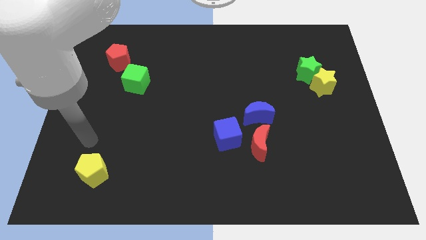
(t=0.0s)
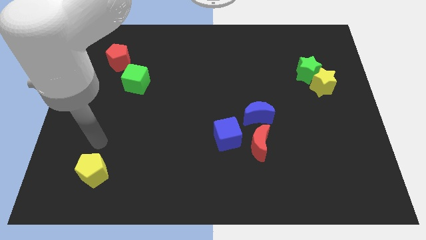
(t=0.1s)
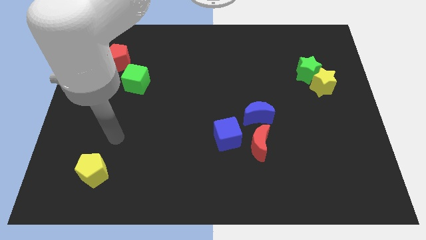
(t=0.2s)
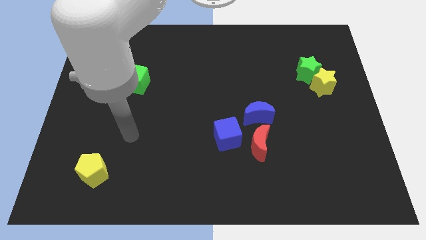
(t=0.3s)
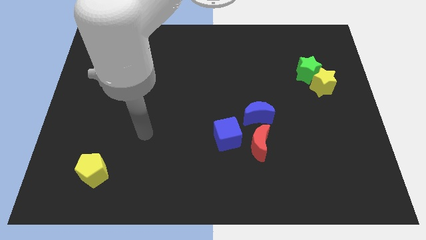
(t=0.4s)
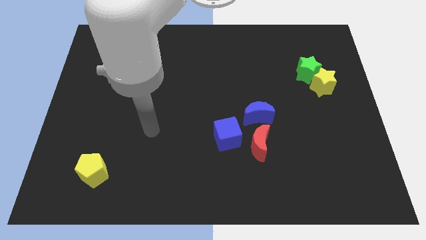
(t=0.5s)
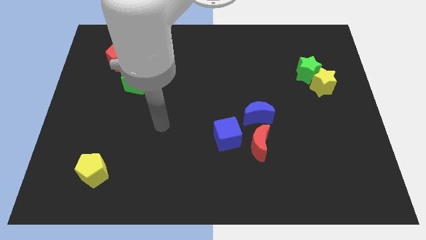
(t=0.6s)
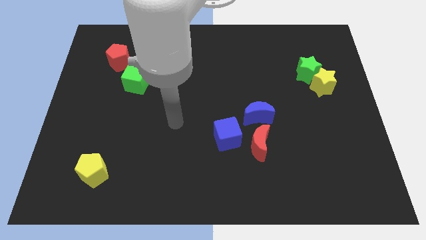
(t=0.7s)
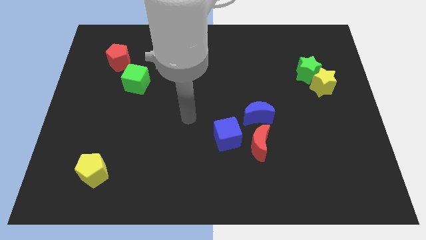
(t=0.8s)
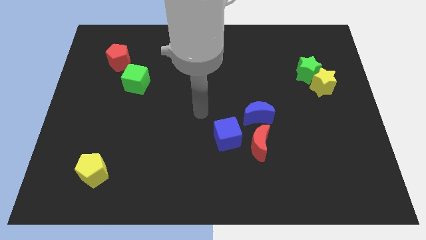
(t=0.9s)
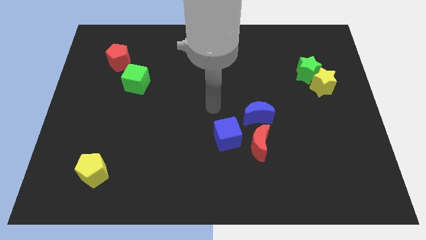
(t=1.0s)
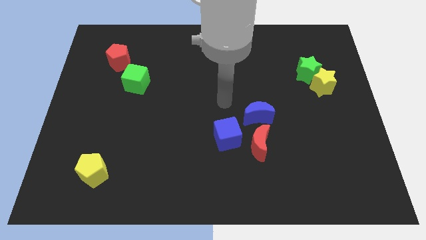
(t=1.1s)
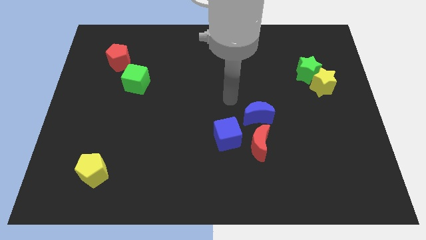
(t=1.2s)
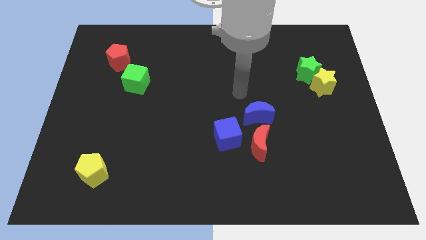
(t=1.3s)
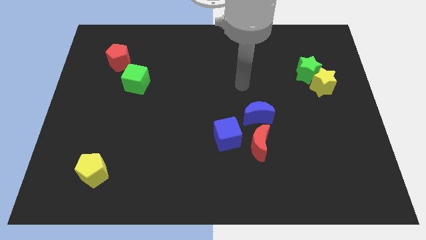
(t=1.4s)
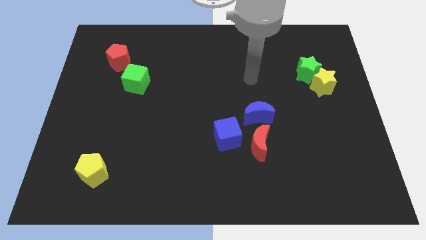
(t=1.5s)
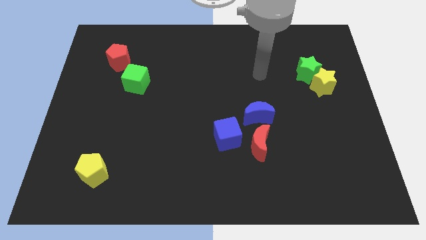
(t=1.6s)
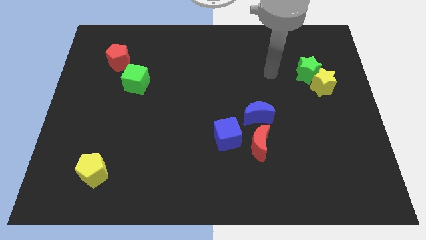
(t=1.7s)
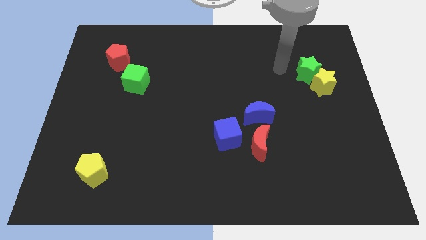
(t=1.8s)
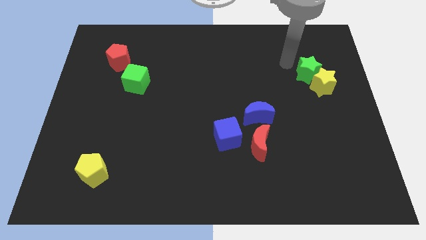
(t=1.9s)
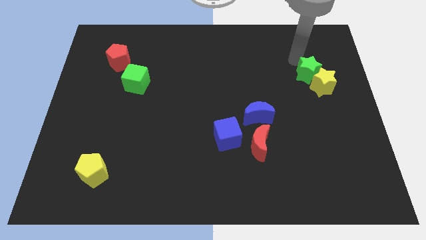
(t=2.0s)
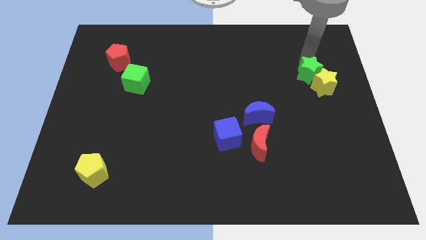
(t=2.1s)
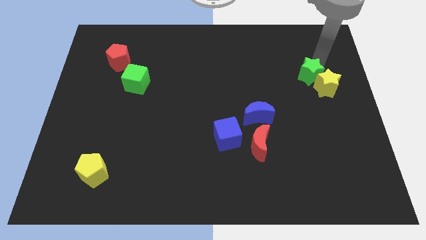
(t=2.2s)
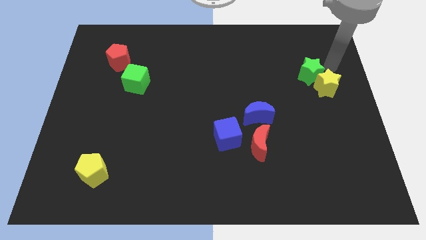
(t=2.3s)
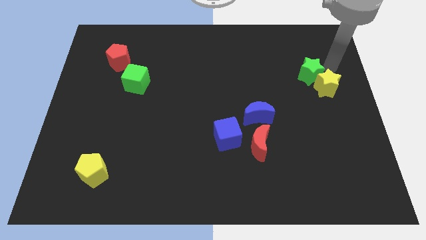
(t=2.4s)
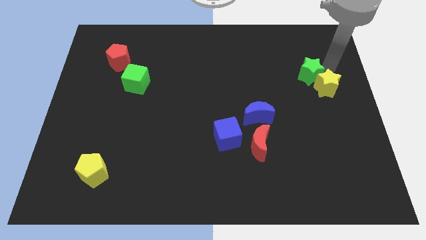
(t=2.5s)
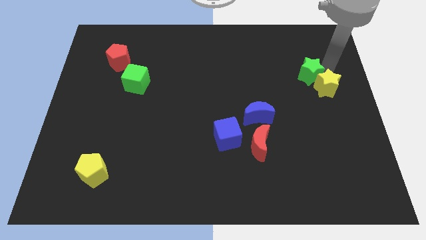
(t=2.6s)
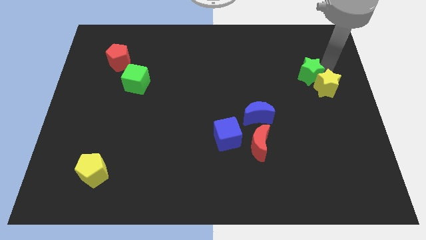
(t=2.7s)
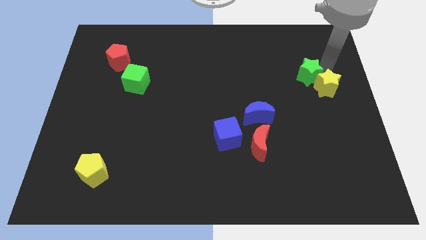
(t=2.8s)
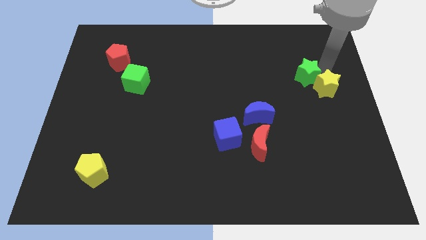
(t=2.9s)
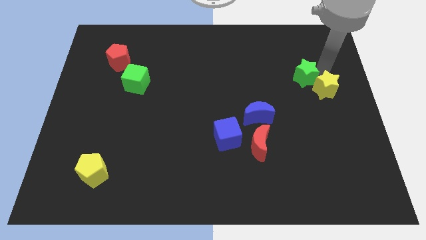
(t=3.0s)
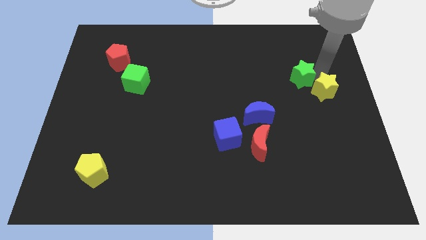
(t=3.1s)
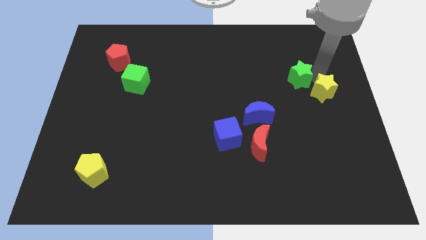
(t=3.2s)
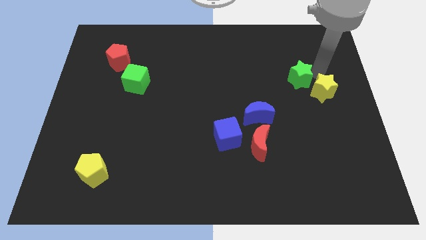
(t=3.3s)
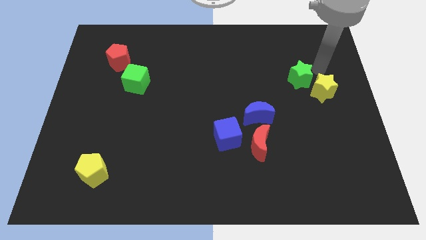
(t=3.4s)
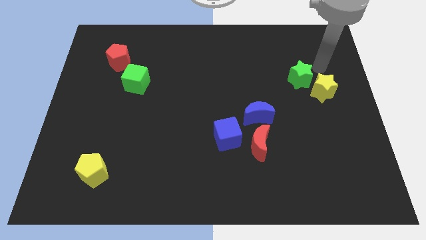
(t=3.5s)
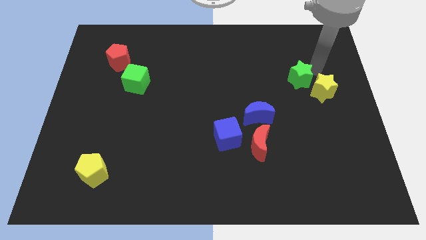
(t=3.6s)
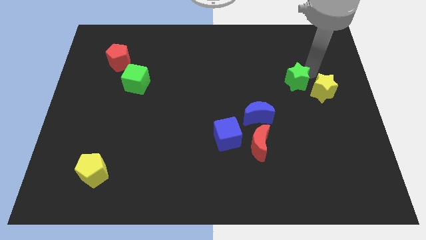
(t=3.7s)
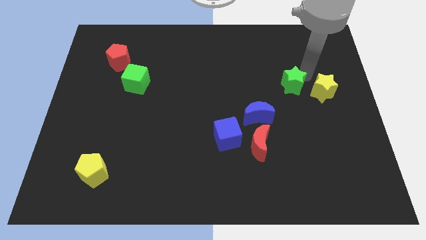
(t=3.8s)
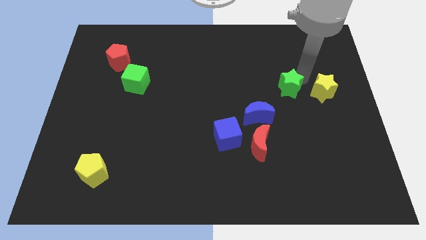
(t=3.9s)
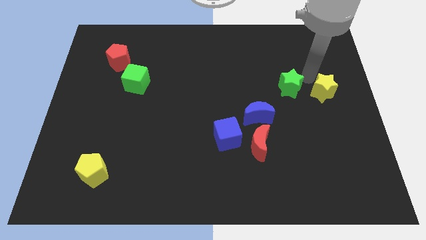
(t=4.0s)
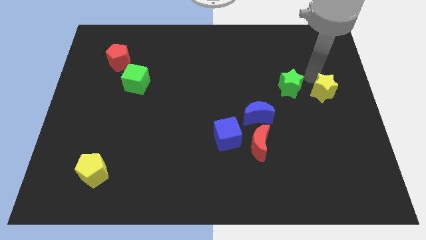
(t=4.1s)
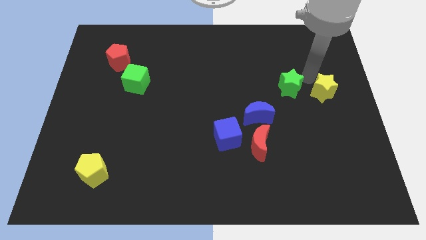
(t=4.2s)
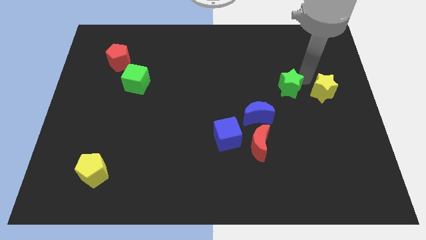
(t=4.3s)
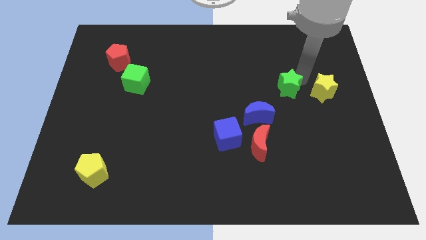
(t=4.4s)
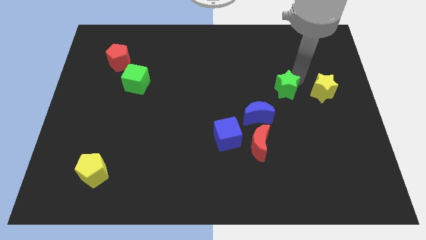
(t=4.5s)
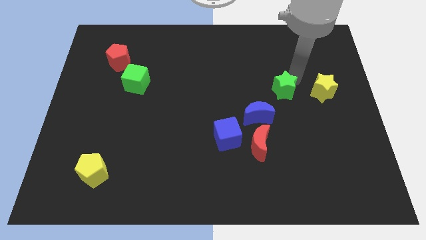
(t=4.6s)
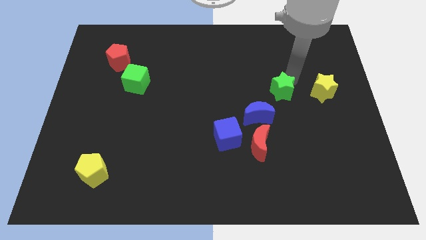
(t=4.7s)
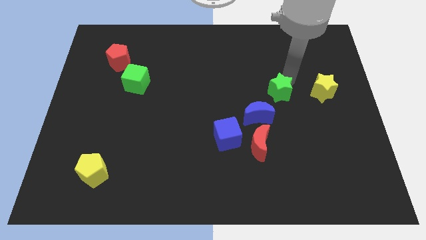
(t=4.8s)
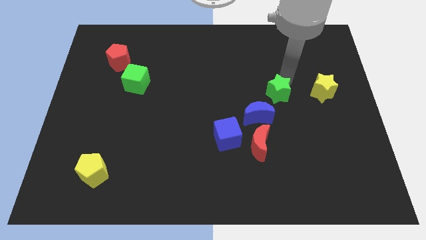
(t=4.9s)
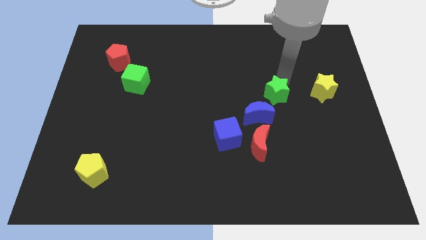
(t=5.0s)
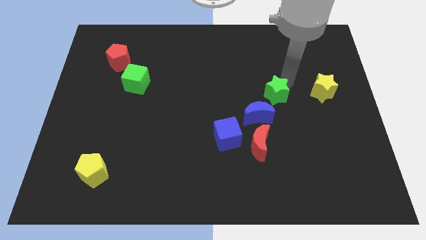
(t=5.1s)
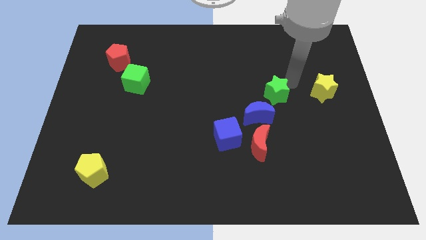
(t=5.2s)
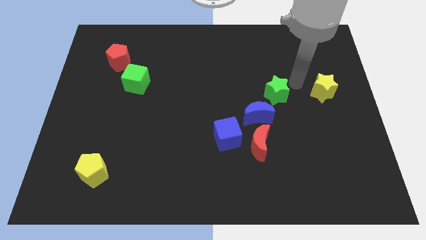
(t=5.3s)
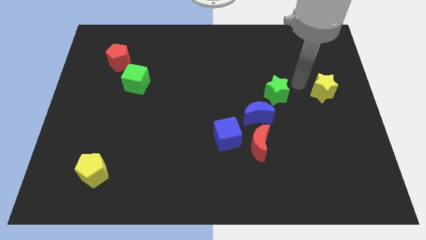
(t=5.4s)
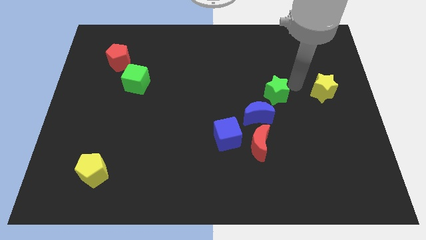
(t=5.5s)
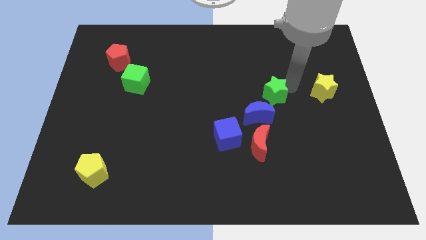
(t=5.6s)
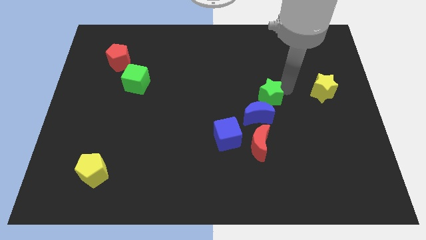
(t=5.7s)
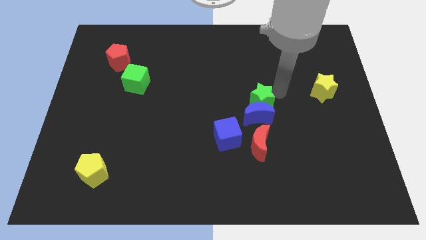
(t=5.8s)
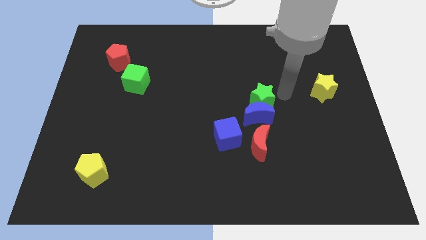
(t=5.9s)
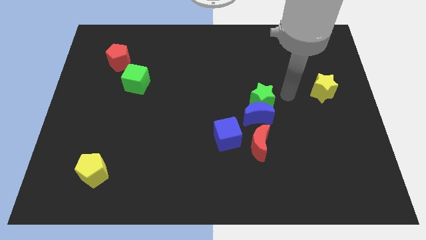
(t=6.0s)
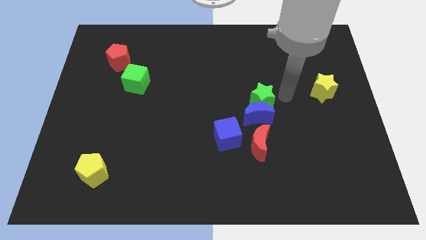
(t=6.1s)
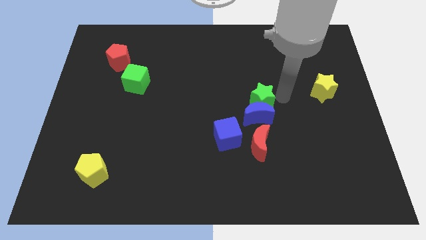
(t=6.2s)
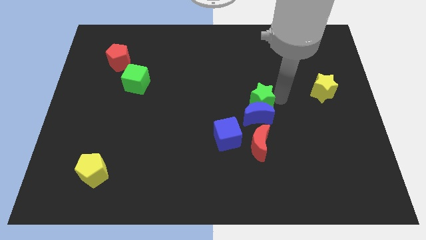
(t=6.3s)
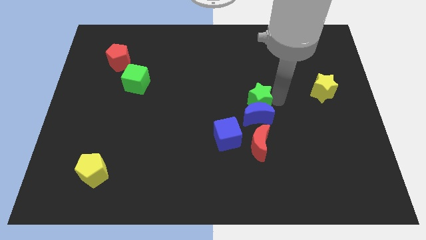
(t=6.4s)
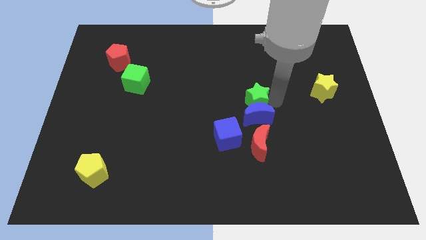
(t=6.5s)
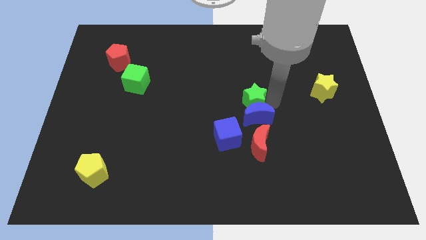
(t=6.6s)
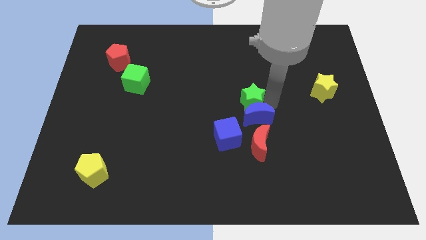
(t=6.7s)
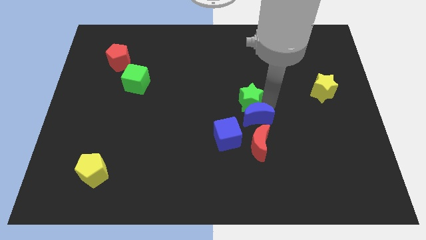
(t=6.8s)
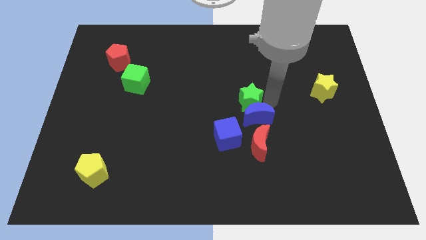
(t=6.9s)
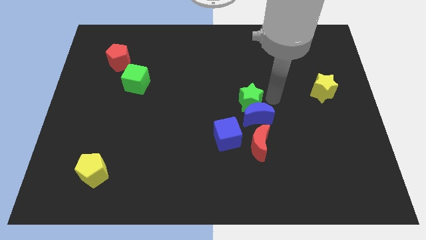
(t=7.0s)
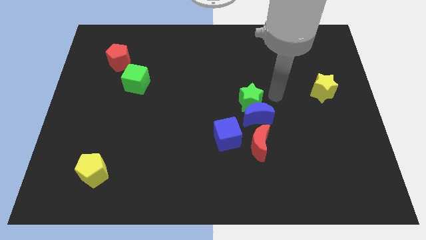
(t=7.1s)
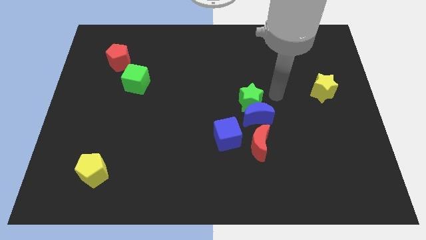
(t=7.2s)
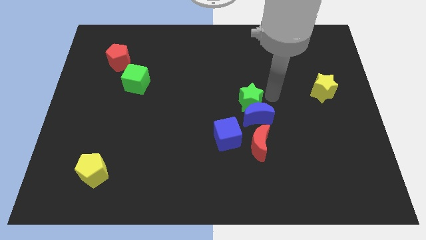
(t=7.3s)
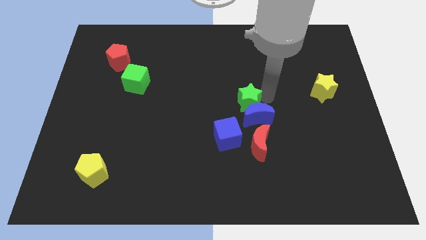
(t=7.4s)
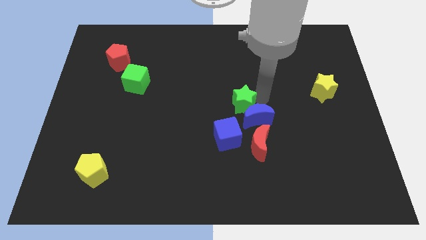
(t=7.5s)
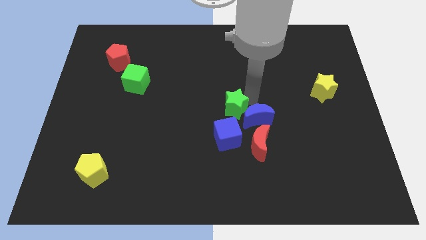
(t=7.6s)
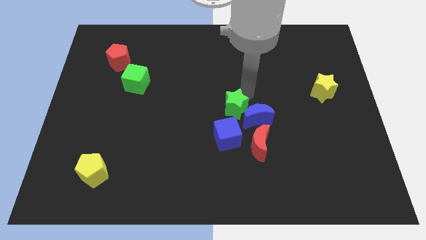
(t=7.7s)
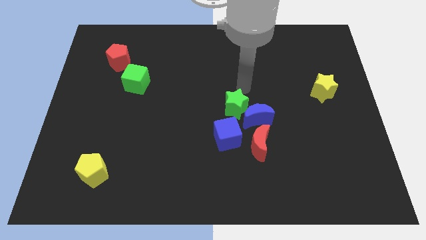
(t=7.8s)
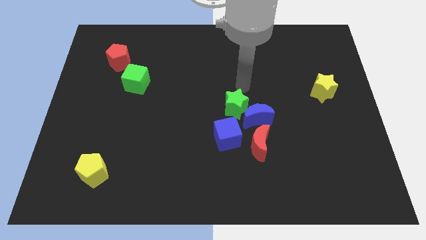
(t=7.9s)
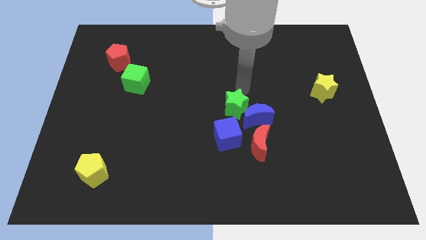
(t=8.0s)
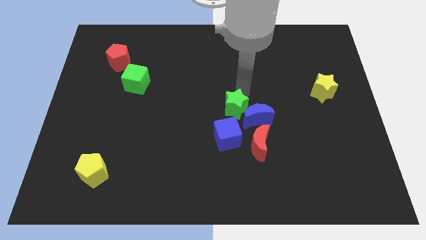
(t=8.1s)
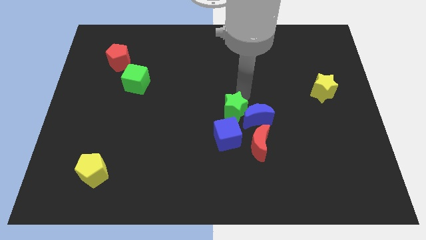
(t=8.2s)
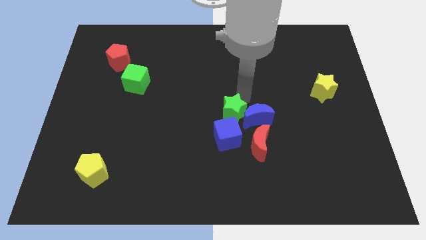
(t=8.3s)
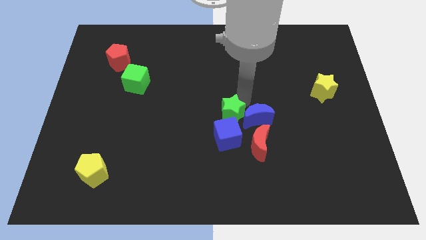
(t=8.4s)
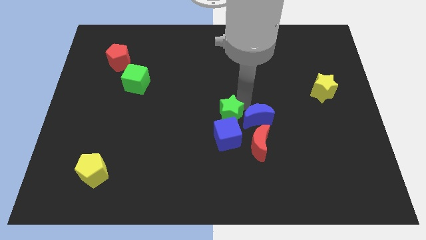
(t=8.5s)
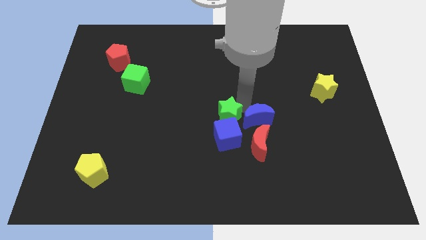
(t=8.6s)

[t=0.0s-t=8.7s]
put the green star to the blue cube
